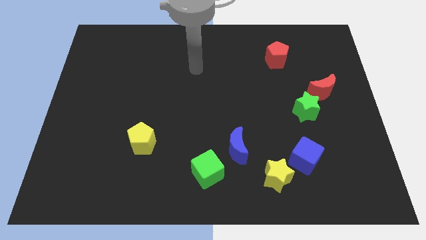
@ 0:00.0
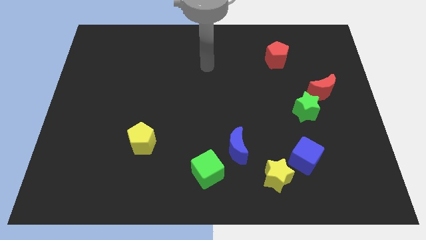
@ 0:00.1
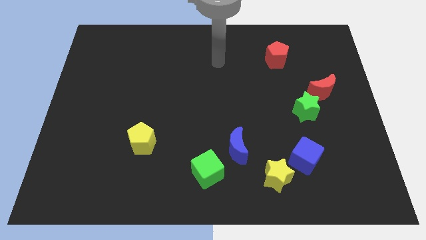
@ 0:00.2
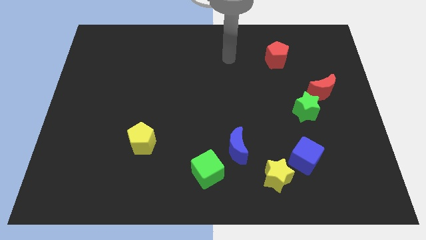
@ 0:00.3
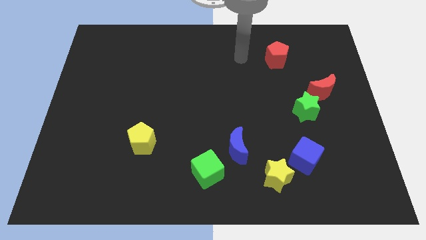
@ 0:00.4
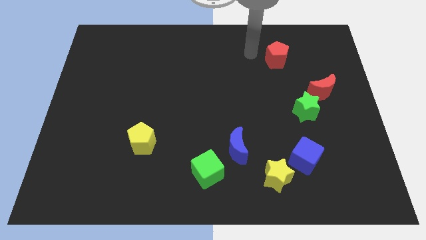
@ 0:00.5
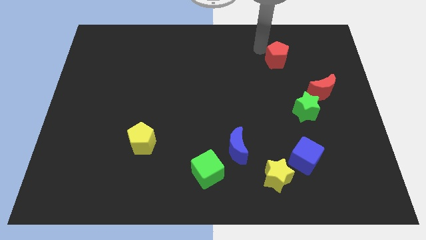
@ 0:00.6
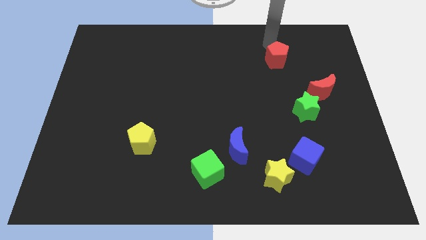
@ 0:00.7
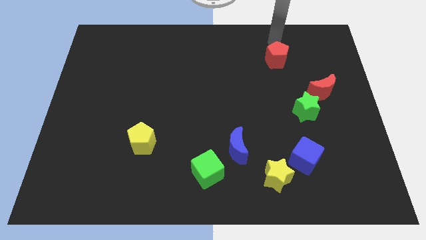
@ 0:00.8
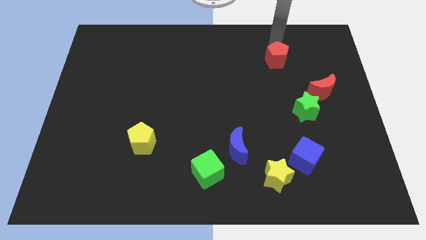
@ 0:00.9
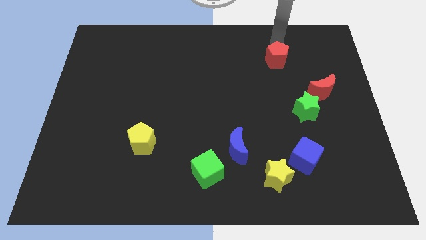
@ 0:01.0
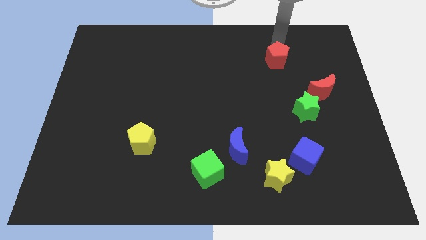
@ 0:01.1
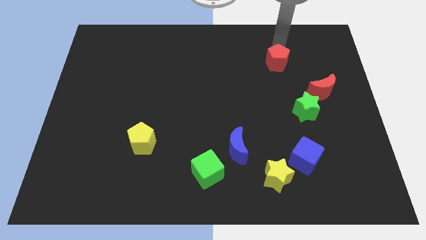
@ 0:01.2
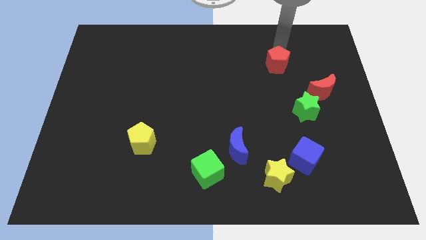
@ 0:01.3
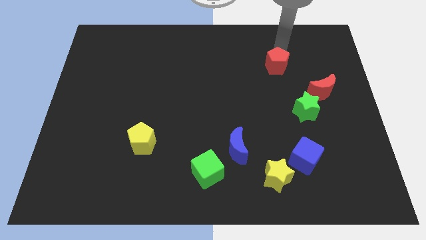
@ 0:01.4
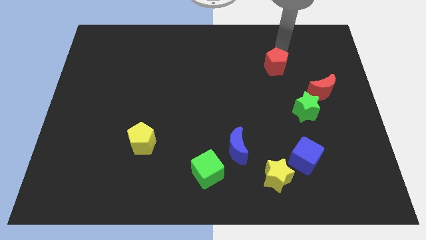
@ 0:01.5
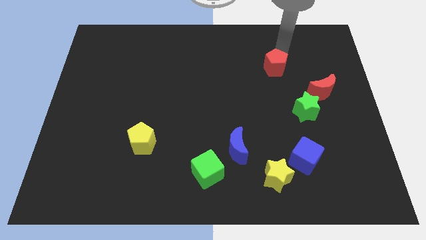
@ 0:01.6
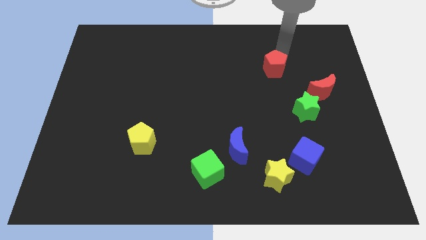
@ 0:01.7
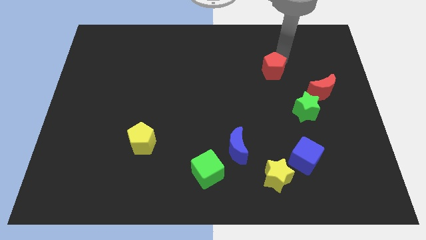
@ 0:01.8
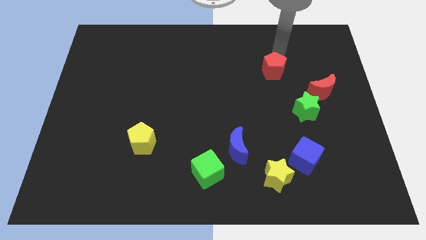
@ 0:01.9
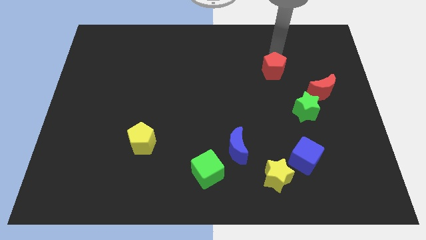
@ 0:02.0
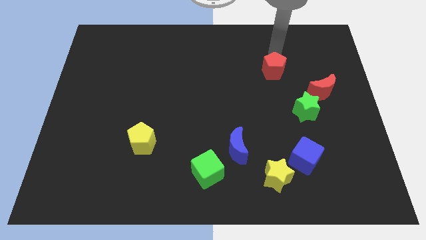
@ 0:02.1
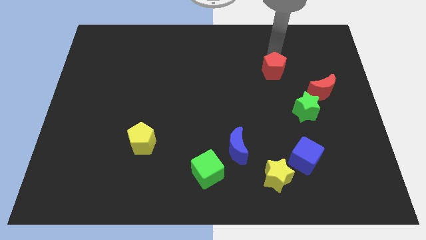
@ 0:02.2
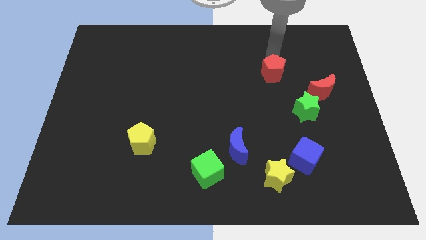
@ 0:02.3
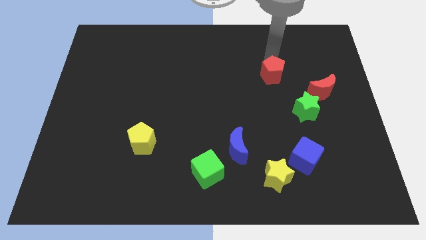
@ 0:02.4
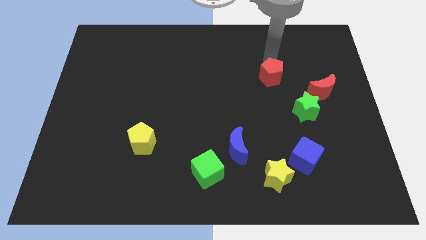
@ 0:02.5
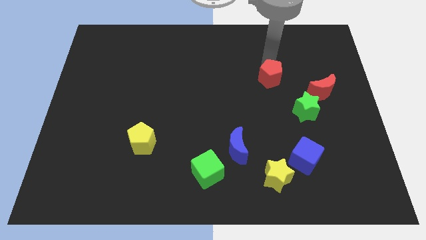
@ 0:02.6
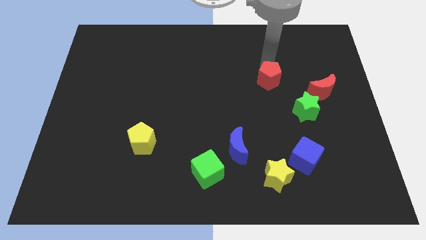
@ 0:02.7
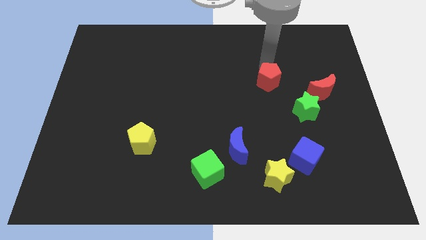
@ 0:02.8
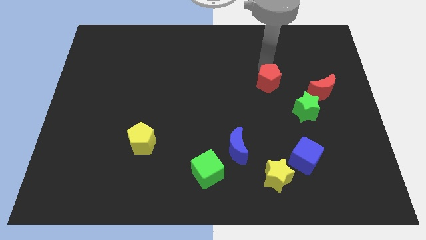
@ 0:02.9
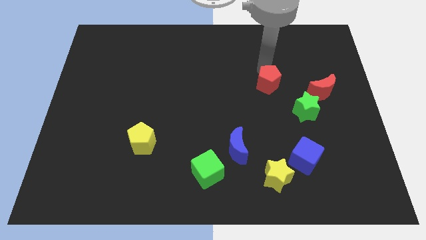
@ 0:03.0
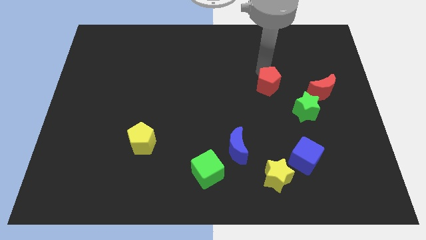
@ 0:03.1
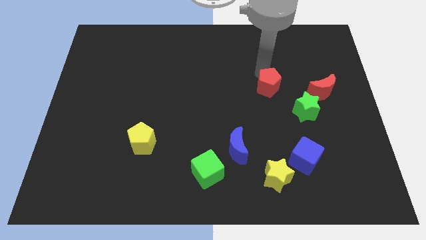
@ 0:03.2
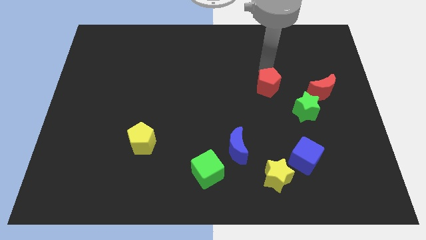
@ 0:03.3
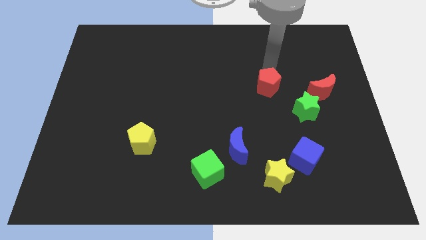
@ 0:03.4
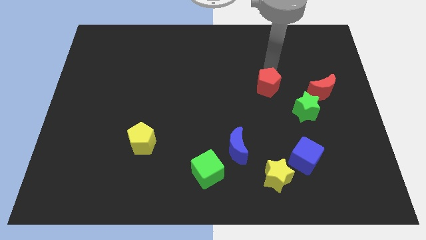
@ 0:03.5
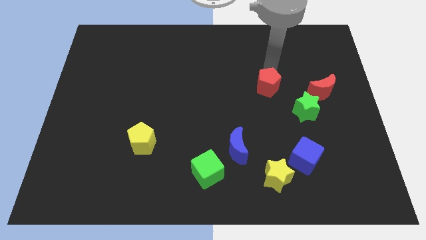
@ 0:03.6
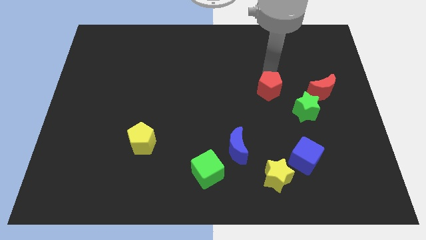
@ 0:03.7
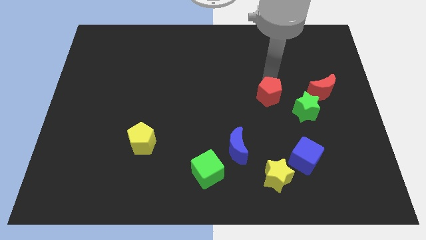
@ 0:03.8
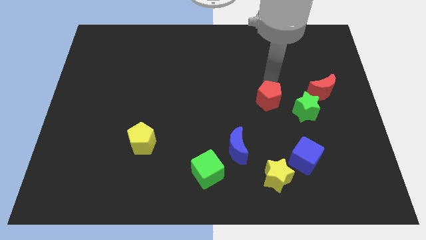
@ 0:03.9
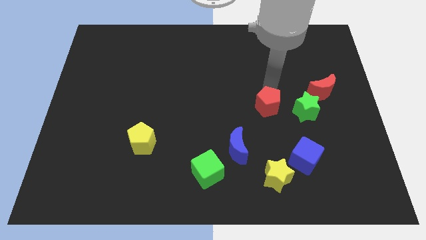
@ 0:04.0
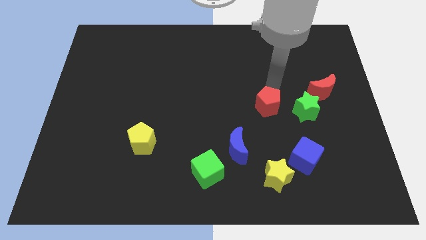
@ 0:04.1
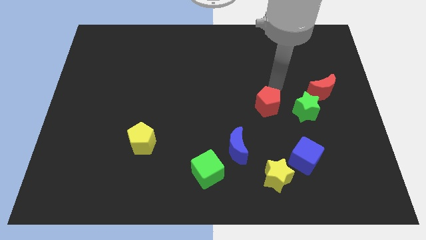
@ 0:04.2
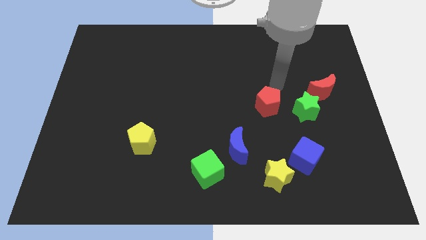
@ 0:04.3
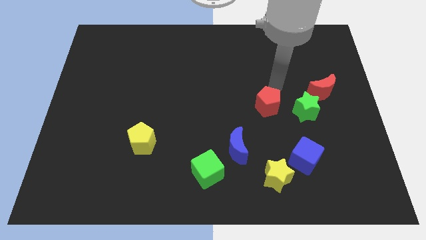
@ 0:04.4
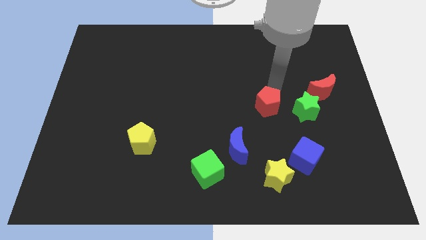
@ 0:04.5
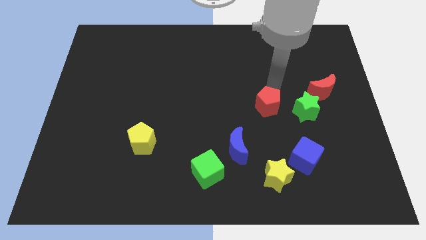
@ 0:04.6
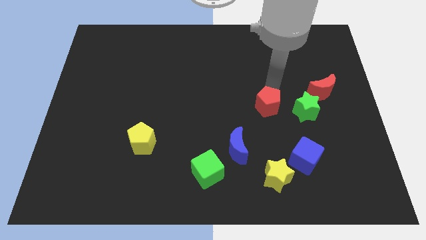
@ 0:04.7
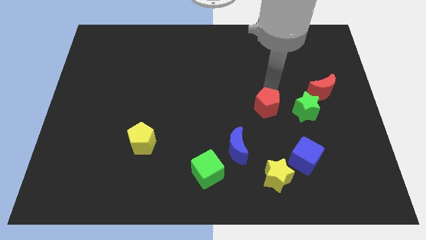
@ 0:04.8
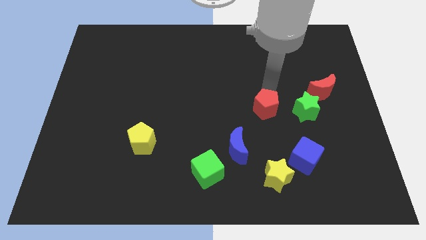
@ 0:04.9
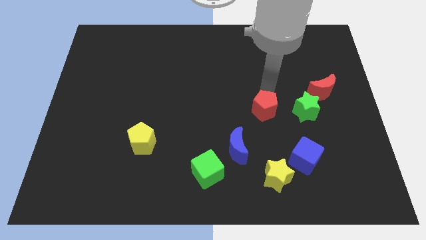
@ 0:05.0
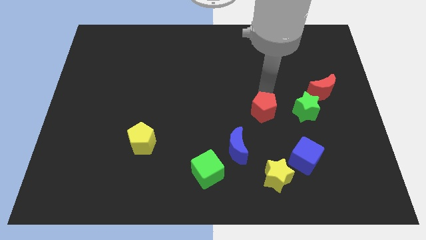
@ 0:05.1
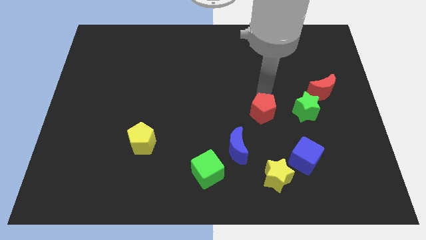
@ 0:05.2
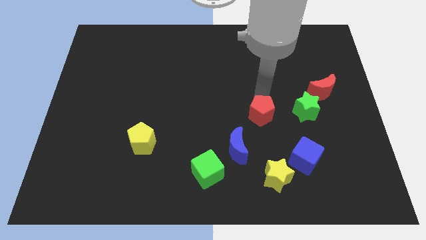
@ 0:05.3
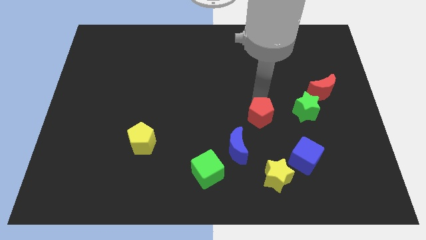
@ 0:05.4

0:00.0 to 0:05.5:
put the red pentagon above the yellow star

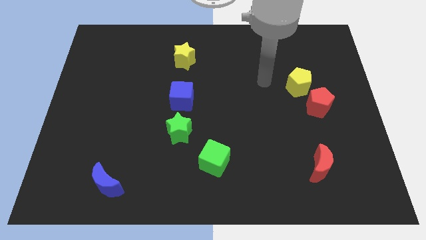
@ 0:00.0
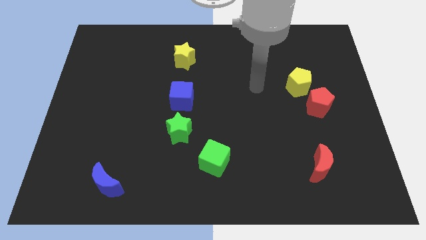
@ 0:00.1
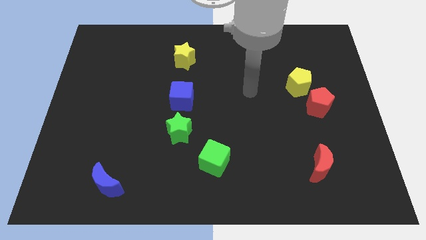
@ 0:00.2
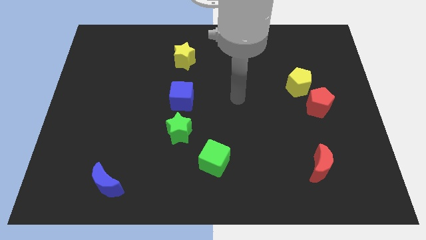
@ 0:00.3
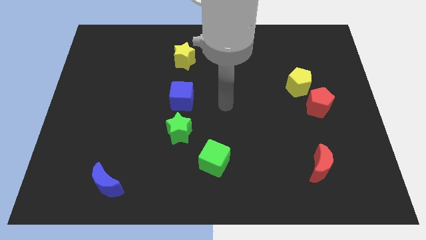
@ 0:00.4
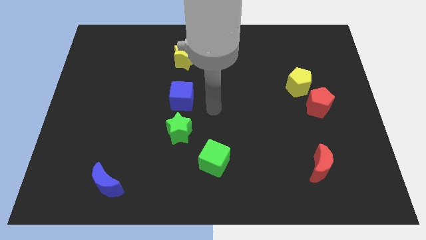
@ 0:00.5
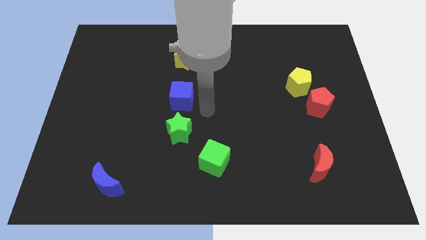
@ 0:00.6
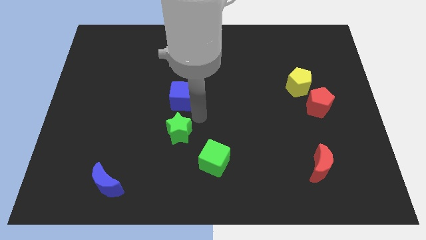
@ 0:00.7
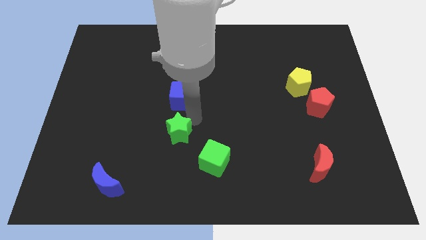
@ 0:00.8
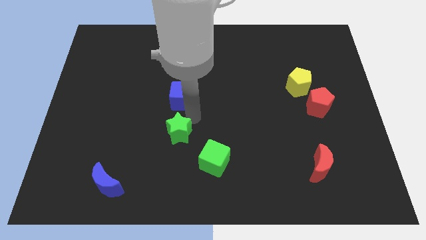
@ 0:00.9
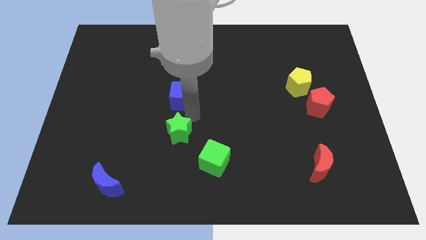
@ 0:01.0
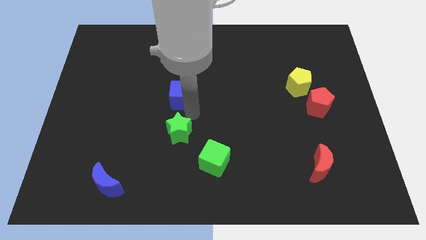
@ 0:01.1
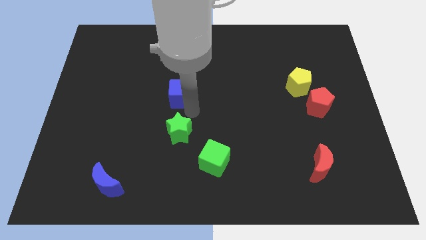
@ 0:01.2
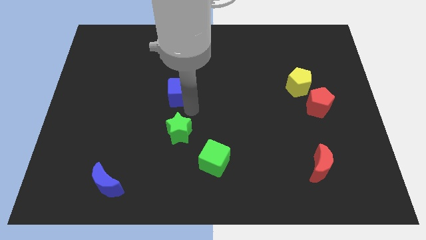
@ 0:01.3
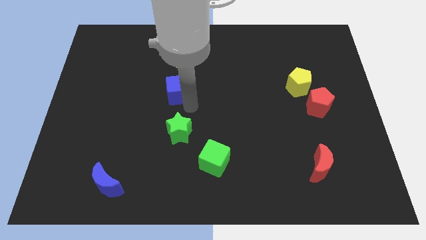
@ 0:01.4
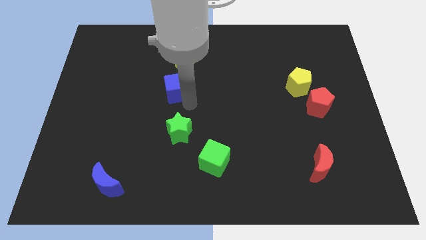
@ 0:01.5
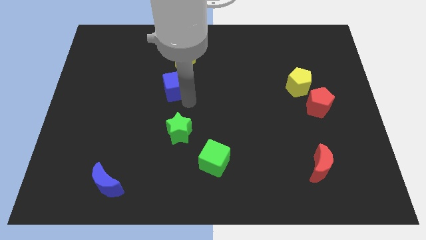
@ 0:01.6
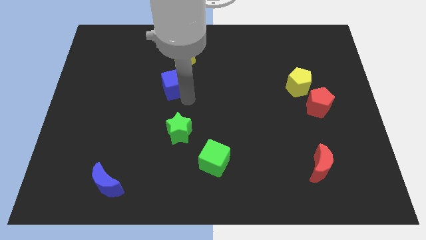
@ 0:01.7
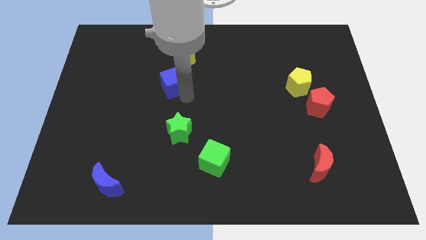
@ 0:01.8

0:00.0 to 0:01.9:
push the blue cube diagonally down and to the left of the yellow star

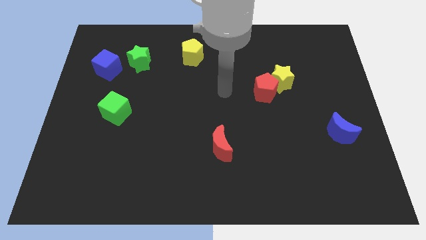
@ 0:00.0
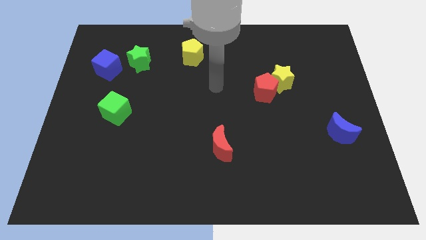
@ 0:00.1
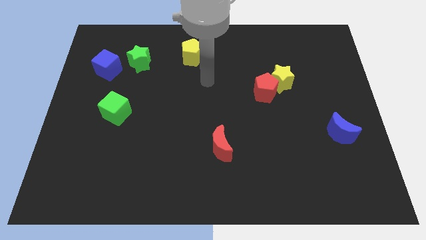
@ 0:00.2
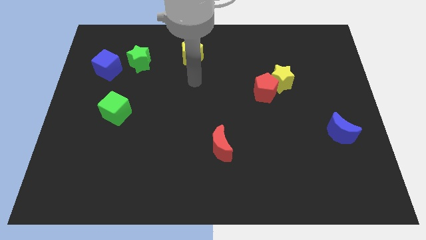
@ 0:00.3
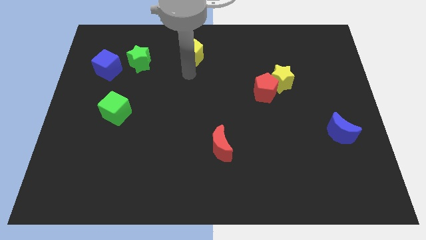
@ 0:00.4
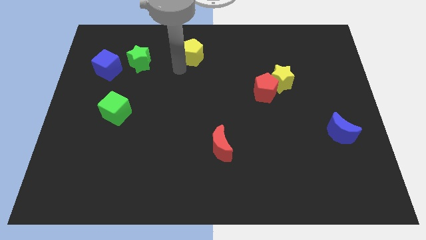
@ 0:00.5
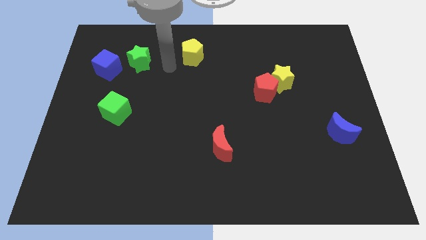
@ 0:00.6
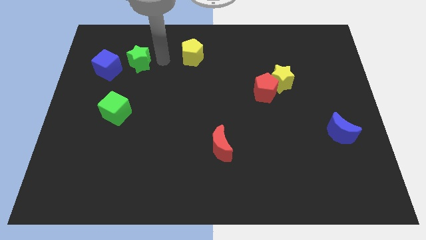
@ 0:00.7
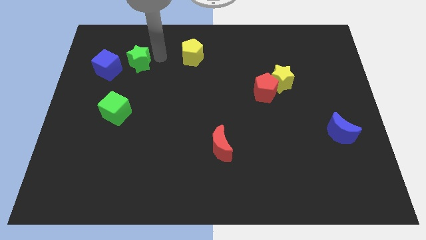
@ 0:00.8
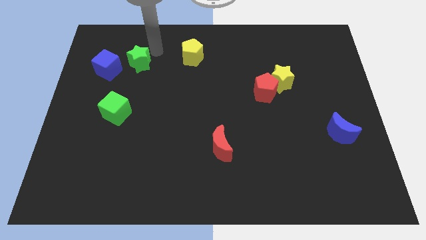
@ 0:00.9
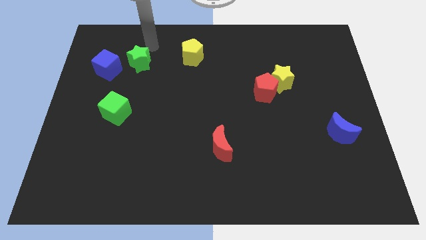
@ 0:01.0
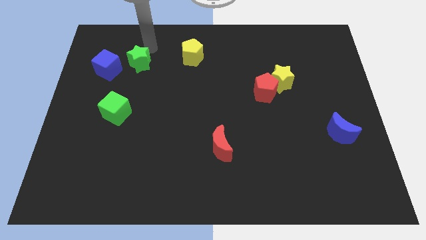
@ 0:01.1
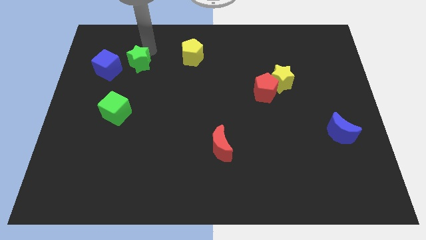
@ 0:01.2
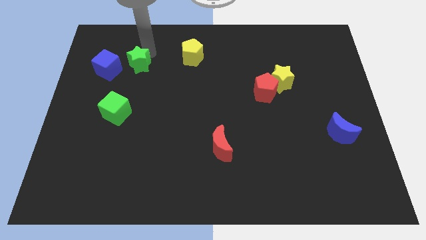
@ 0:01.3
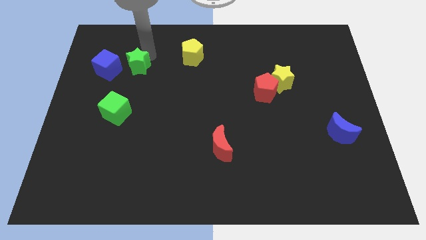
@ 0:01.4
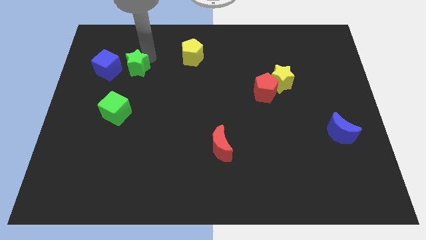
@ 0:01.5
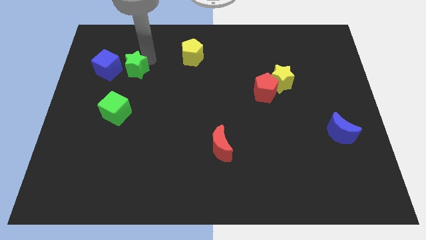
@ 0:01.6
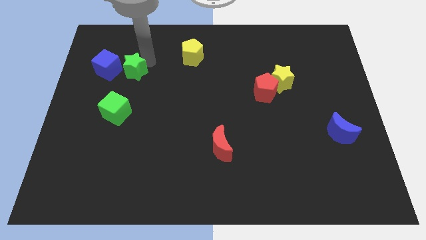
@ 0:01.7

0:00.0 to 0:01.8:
move the green star to the bottom right side of the blue cube
